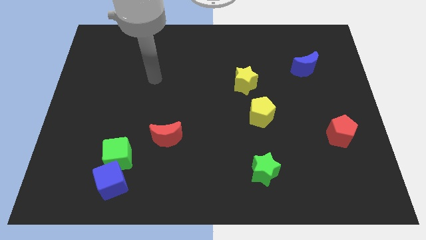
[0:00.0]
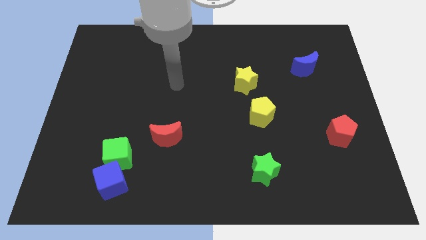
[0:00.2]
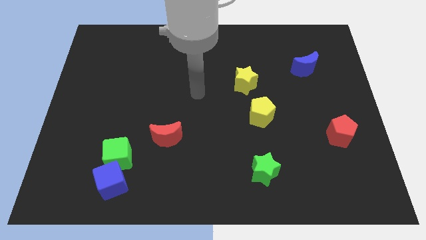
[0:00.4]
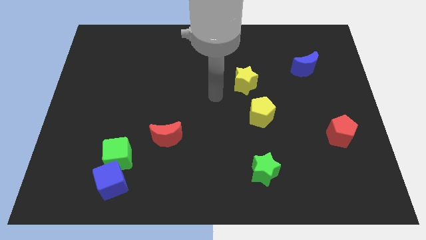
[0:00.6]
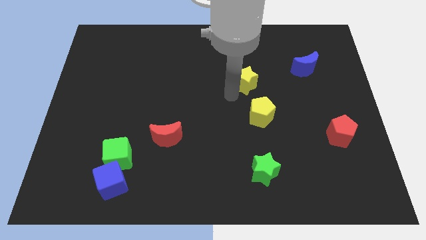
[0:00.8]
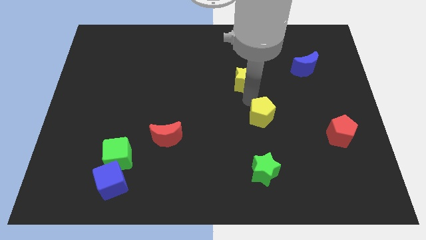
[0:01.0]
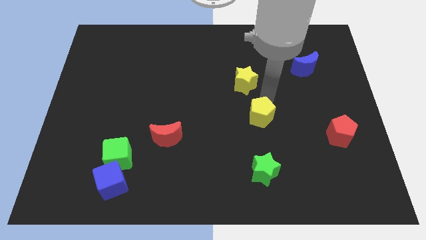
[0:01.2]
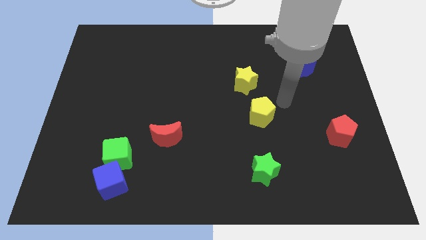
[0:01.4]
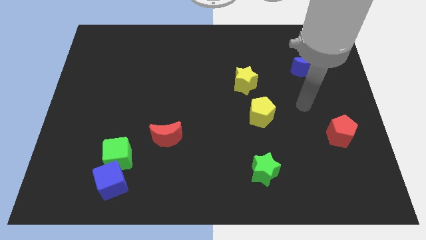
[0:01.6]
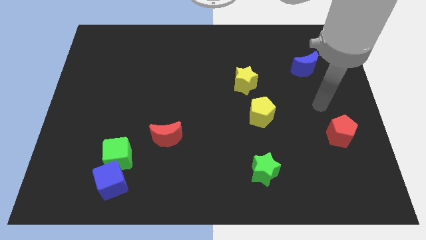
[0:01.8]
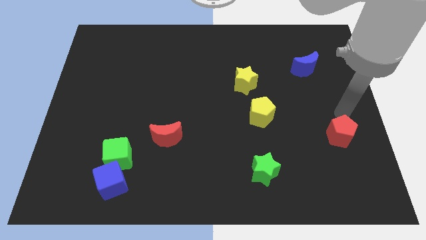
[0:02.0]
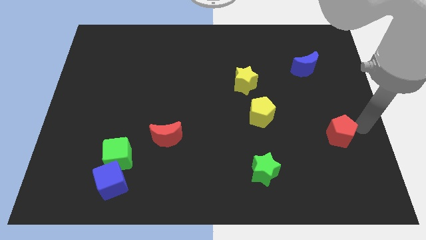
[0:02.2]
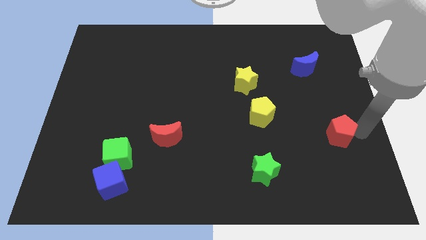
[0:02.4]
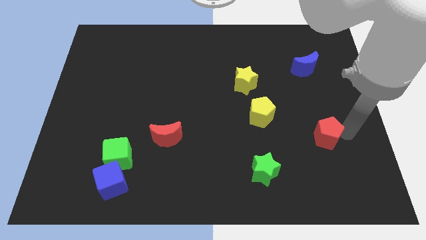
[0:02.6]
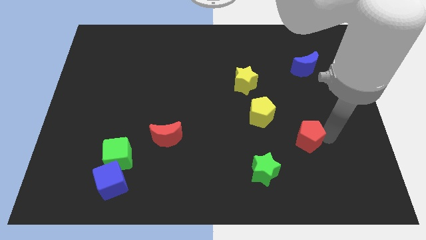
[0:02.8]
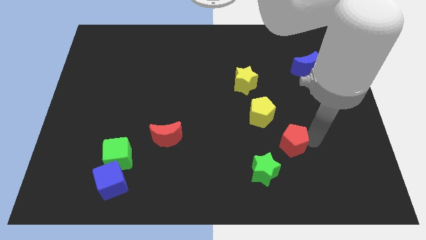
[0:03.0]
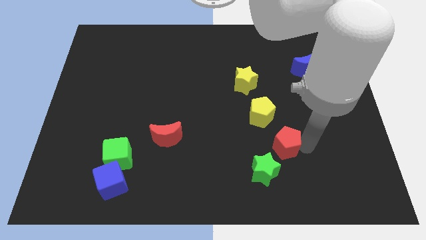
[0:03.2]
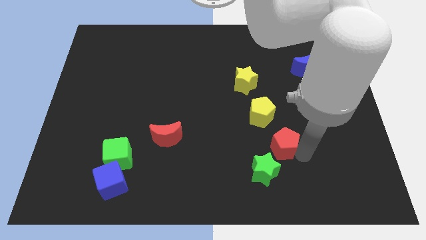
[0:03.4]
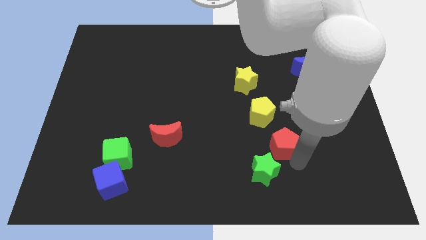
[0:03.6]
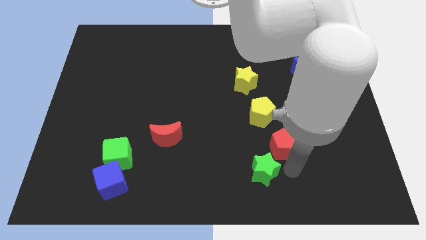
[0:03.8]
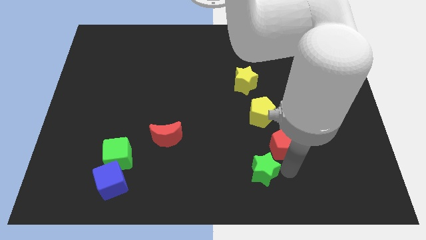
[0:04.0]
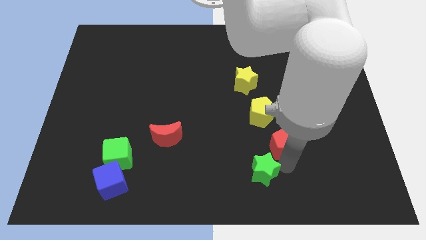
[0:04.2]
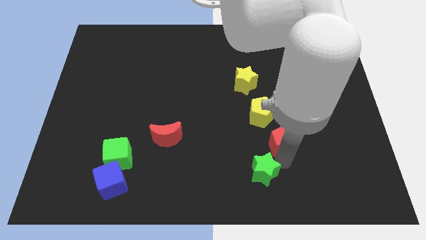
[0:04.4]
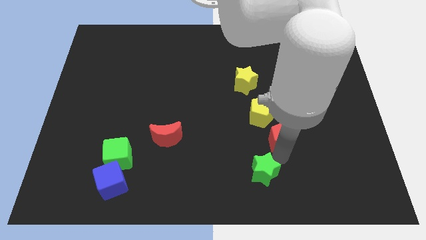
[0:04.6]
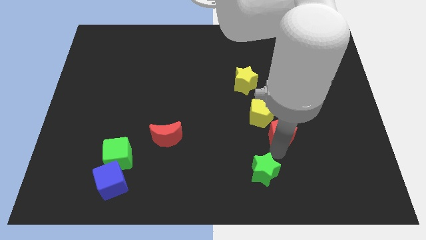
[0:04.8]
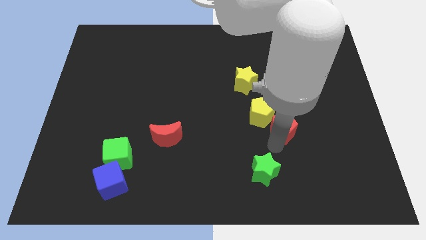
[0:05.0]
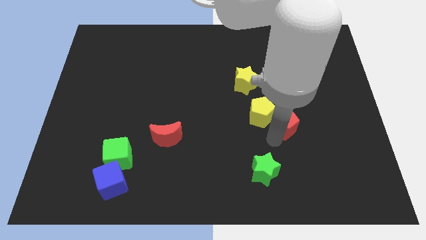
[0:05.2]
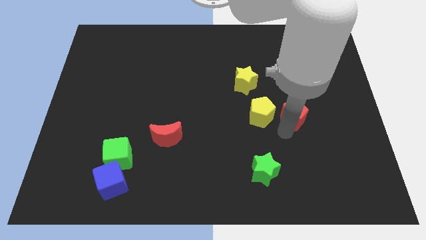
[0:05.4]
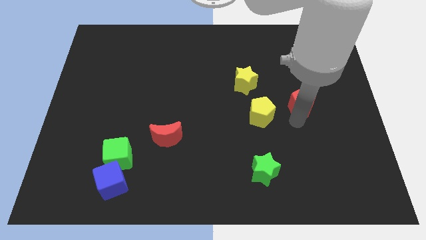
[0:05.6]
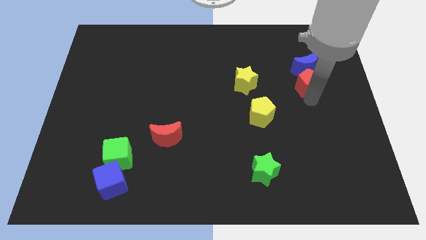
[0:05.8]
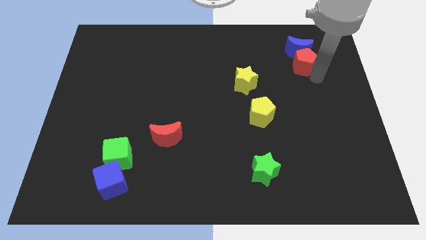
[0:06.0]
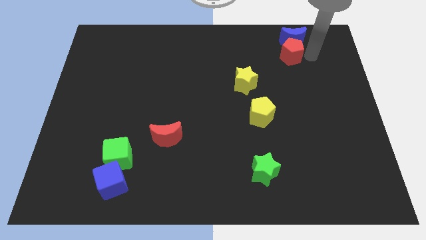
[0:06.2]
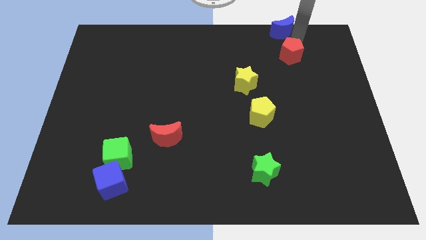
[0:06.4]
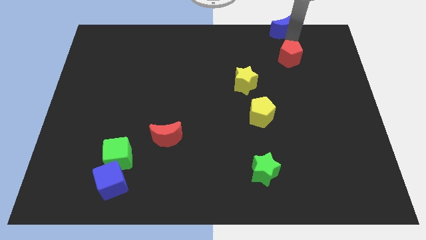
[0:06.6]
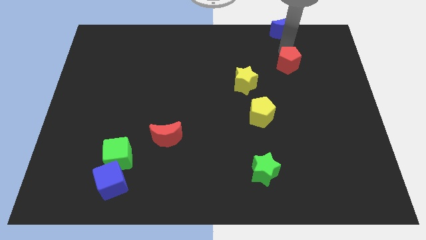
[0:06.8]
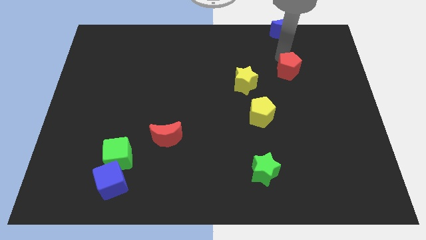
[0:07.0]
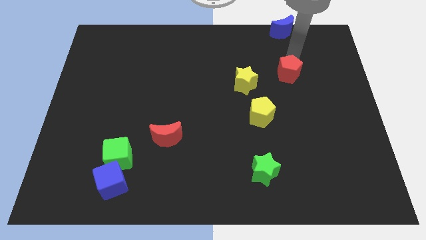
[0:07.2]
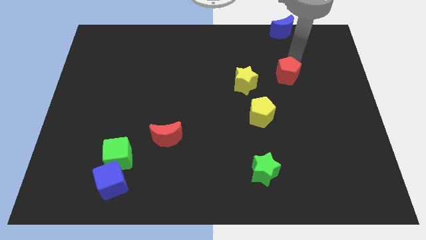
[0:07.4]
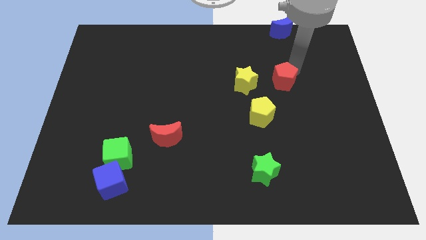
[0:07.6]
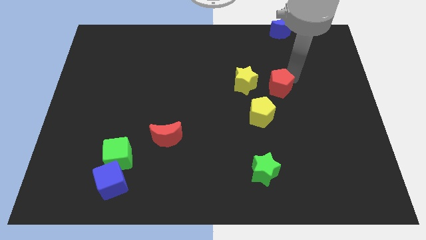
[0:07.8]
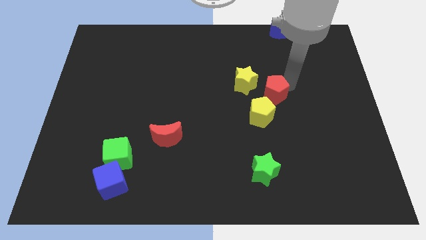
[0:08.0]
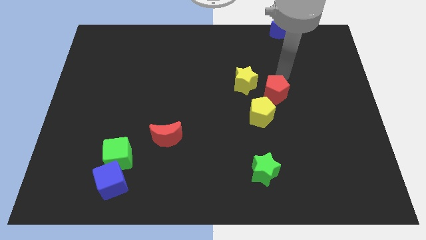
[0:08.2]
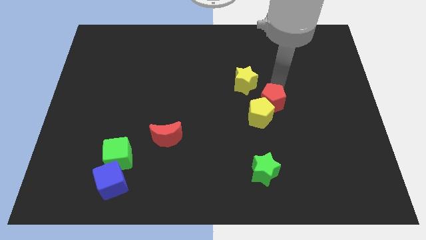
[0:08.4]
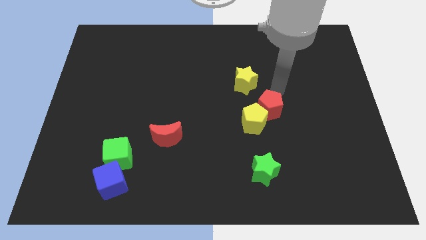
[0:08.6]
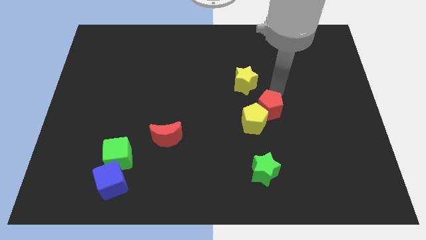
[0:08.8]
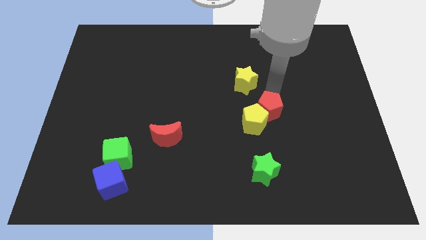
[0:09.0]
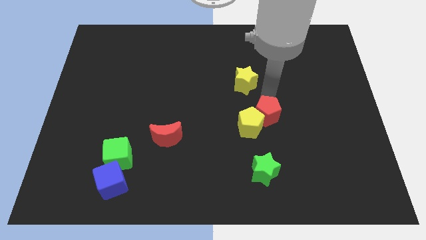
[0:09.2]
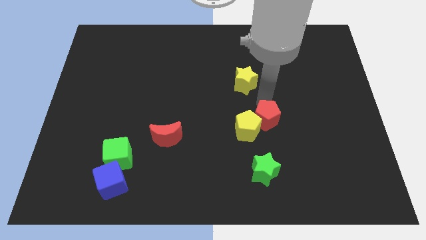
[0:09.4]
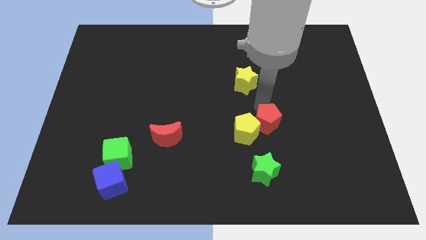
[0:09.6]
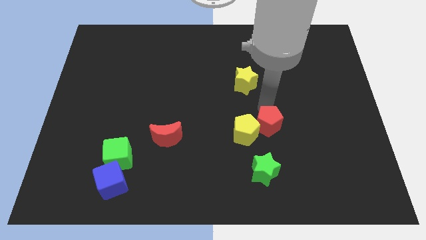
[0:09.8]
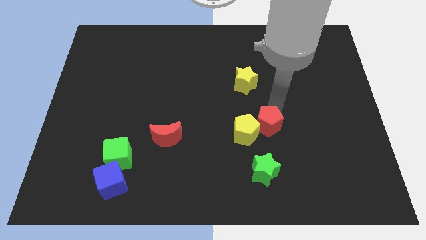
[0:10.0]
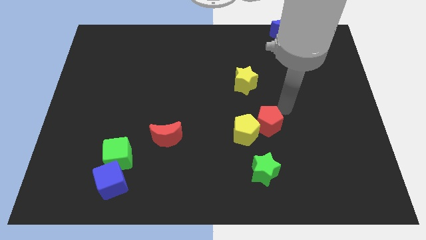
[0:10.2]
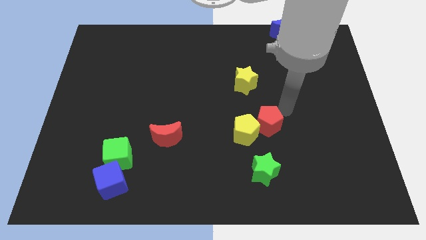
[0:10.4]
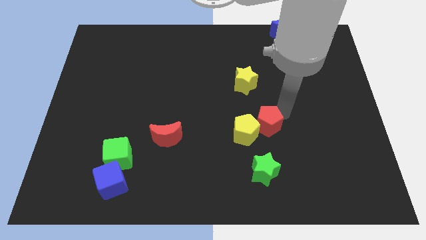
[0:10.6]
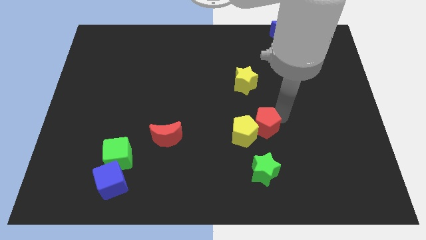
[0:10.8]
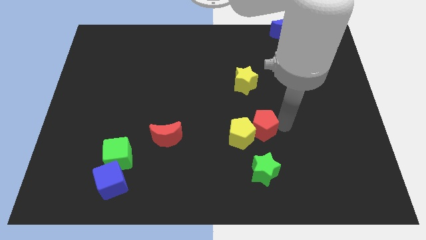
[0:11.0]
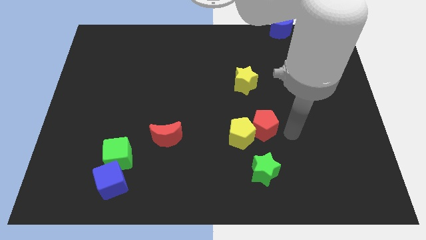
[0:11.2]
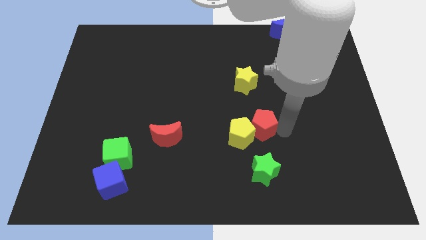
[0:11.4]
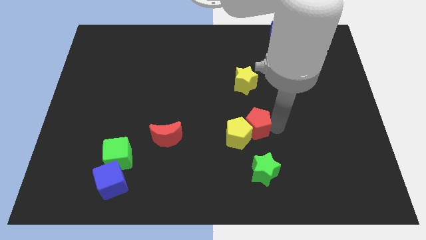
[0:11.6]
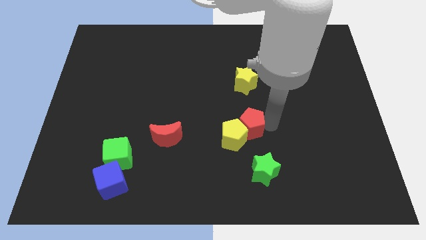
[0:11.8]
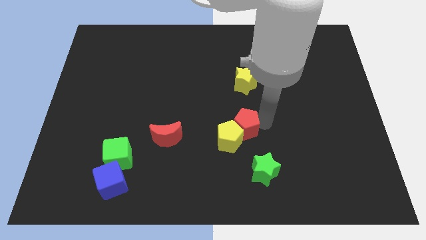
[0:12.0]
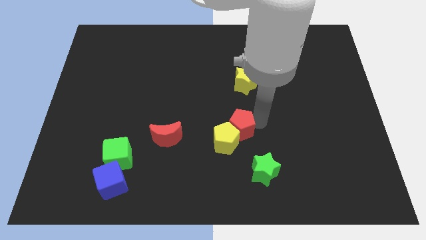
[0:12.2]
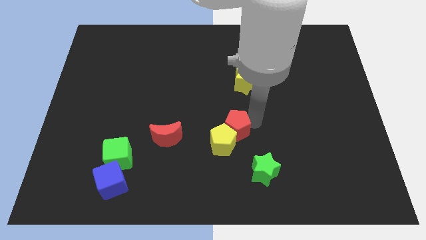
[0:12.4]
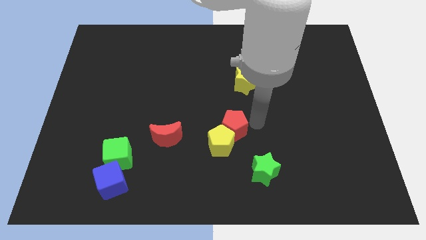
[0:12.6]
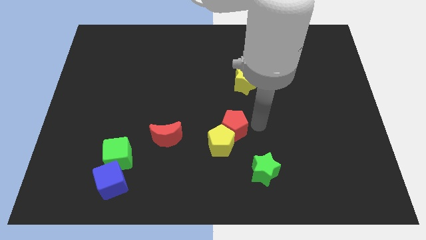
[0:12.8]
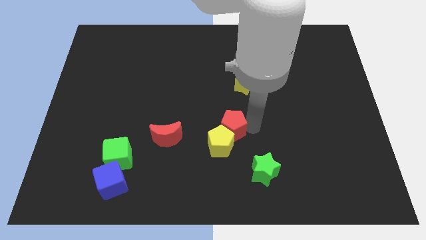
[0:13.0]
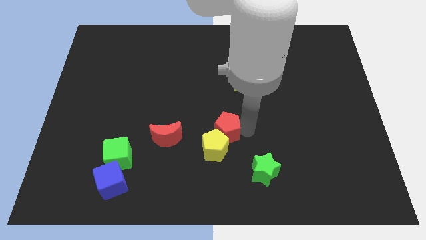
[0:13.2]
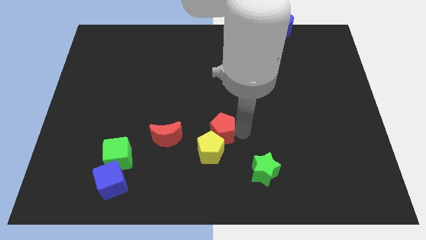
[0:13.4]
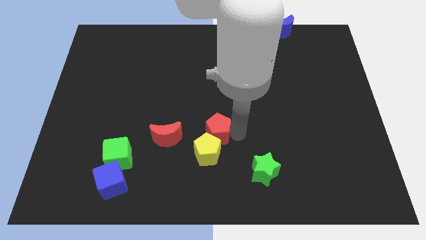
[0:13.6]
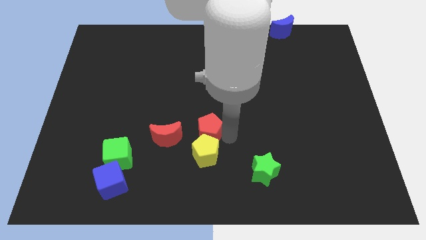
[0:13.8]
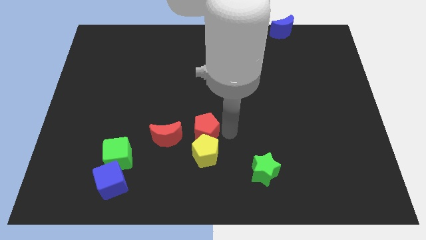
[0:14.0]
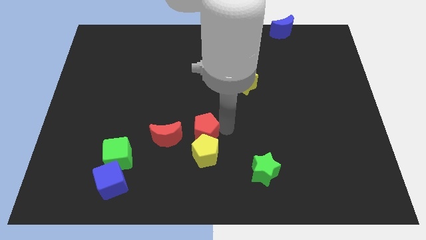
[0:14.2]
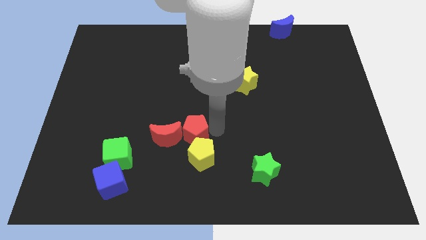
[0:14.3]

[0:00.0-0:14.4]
move the red pentagon close to the red moon

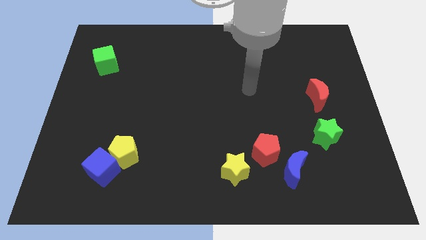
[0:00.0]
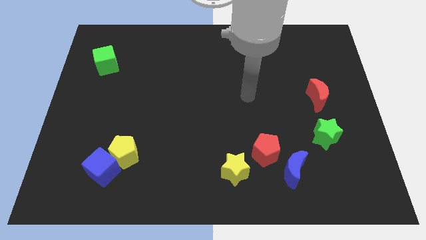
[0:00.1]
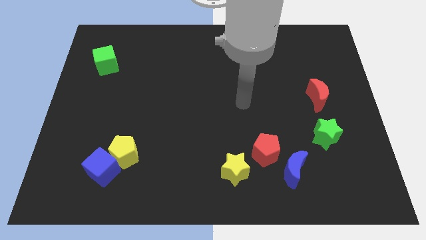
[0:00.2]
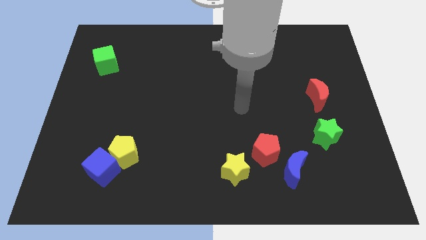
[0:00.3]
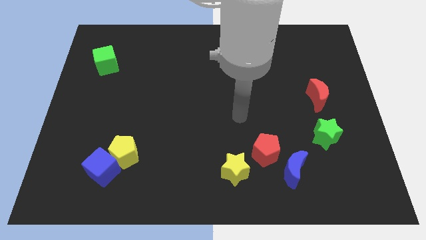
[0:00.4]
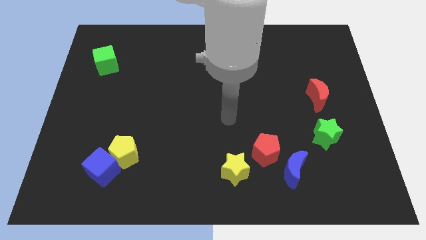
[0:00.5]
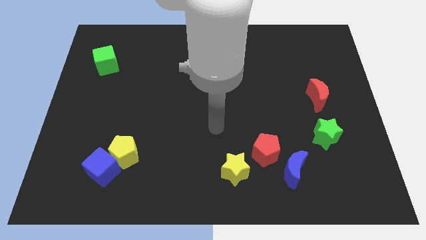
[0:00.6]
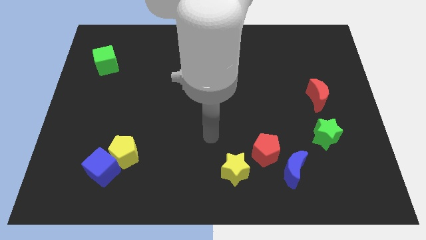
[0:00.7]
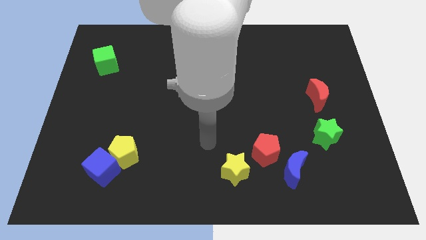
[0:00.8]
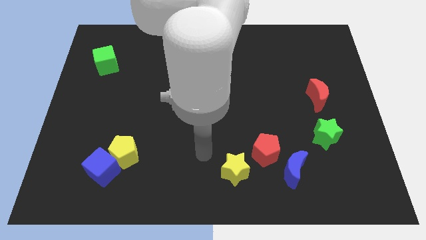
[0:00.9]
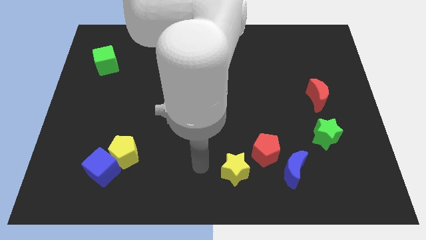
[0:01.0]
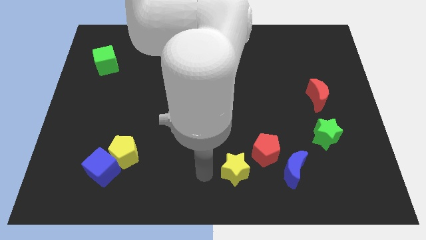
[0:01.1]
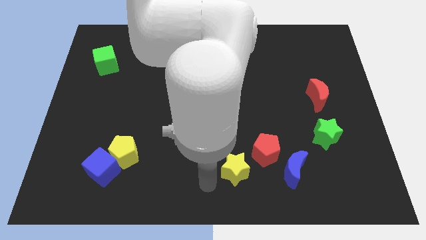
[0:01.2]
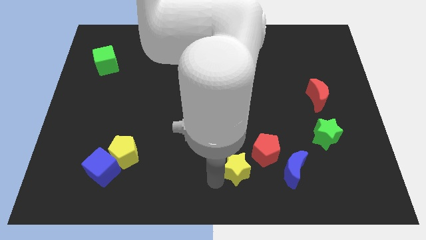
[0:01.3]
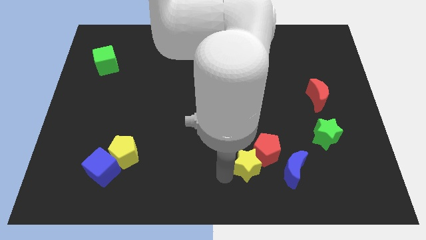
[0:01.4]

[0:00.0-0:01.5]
move the yellow star to the red pentagon
